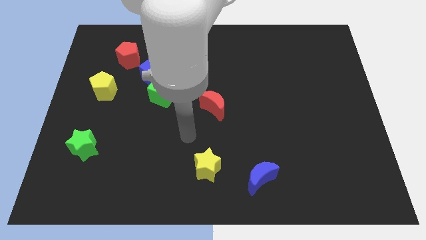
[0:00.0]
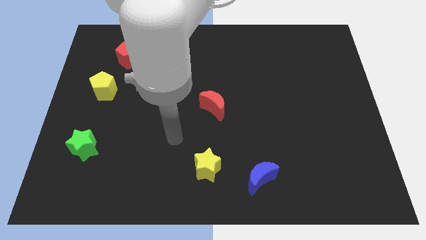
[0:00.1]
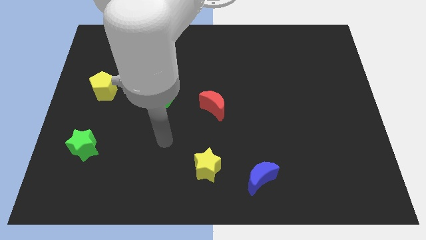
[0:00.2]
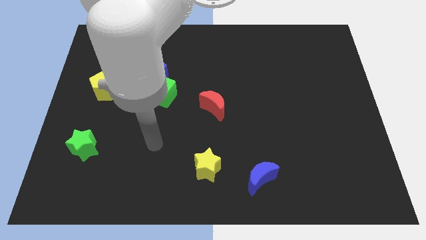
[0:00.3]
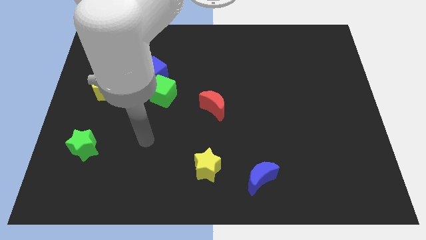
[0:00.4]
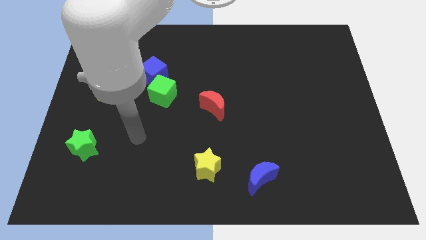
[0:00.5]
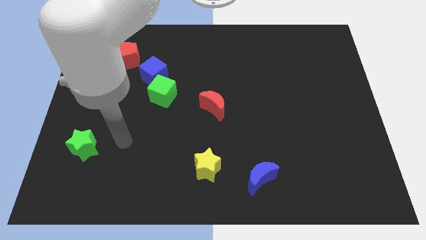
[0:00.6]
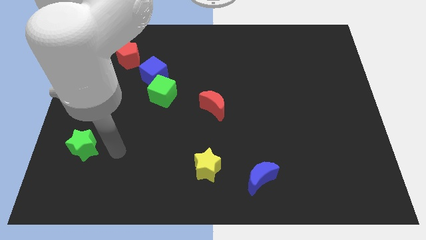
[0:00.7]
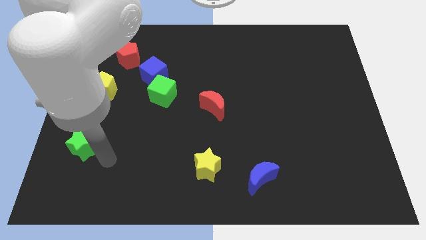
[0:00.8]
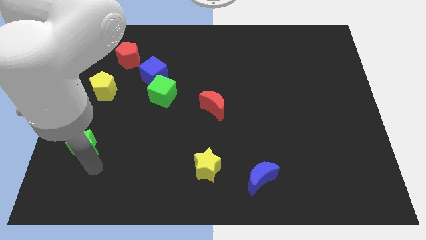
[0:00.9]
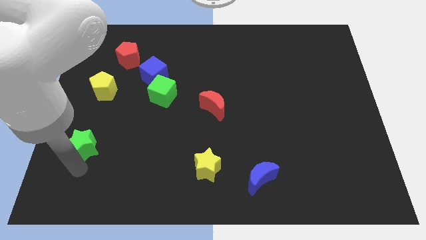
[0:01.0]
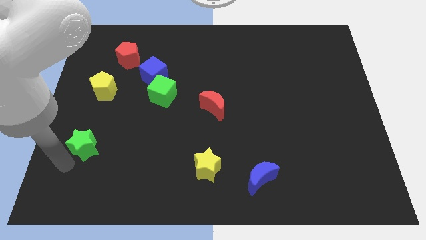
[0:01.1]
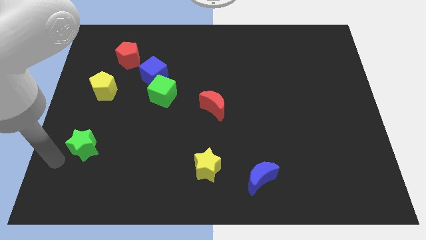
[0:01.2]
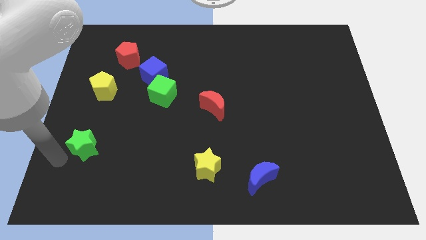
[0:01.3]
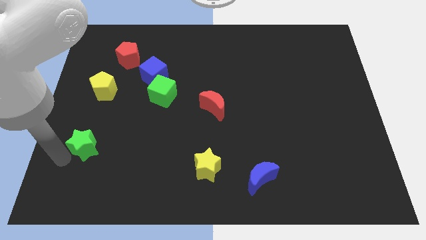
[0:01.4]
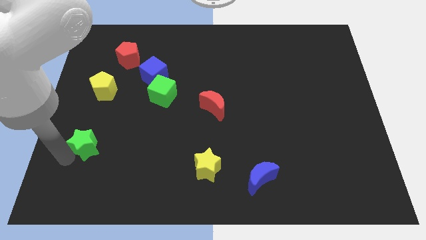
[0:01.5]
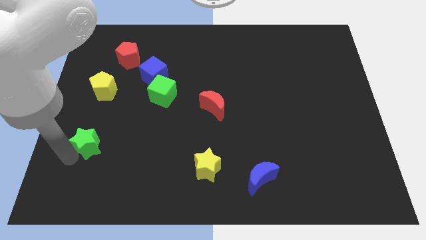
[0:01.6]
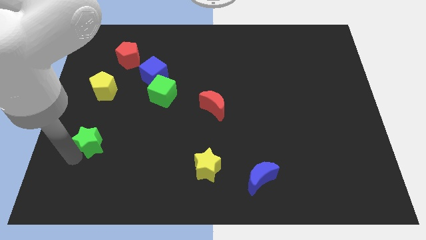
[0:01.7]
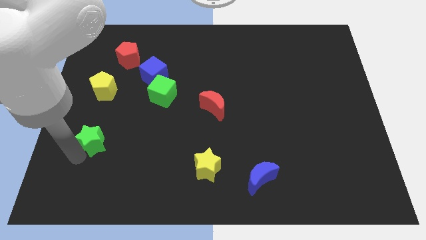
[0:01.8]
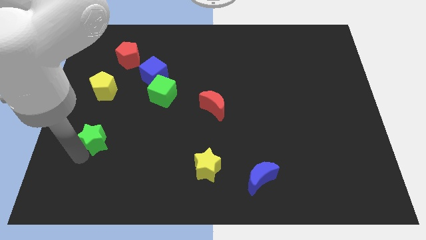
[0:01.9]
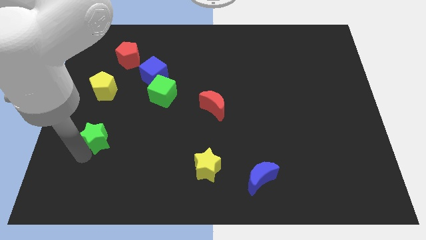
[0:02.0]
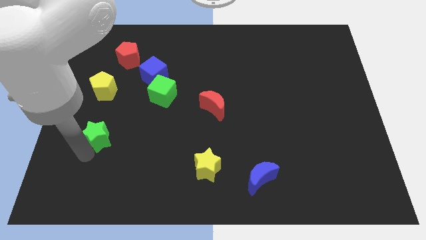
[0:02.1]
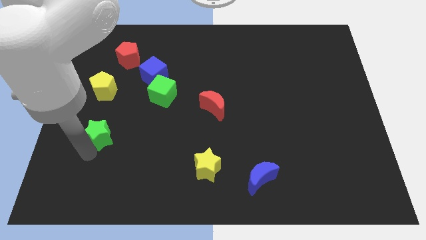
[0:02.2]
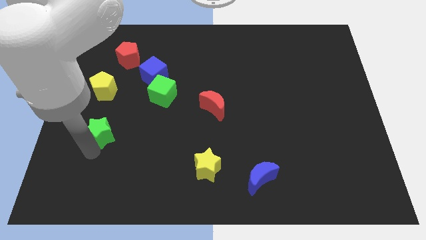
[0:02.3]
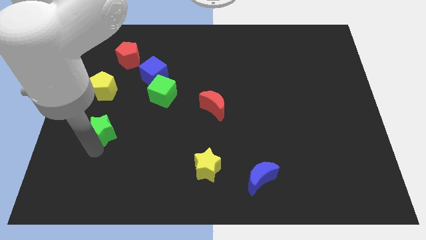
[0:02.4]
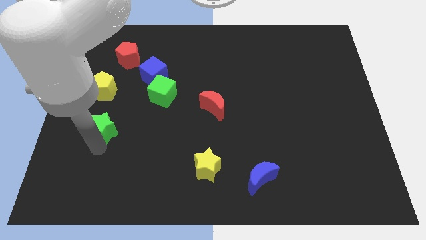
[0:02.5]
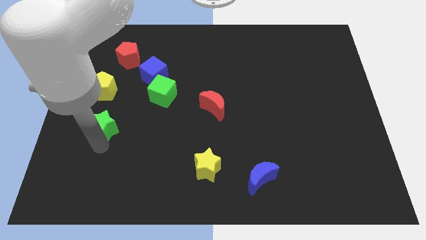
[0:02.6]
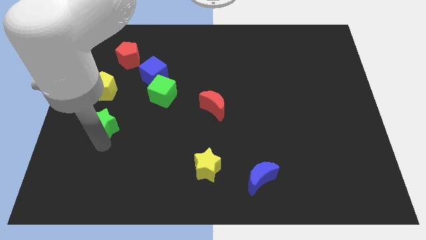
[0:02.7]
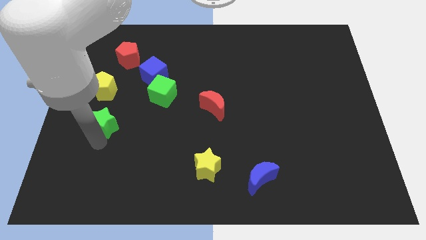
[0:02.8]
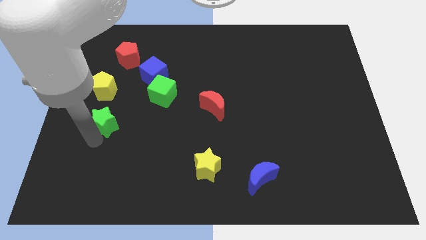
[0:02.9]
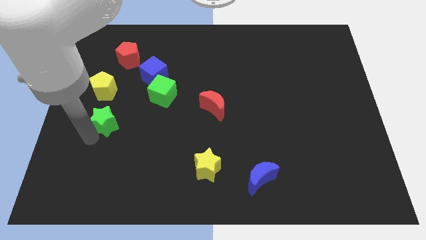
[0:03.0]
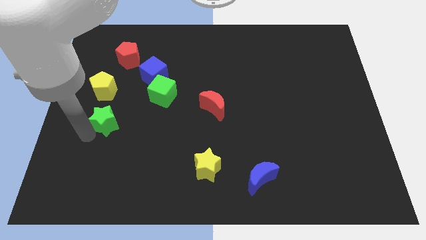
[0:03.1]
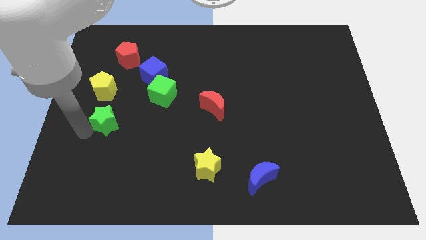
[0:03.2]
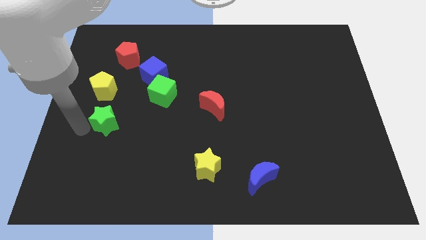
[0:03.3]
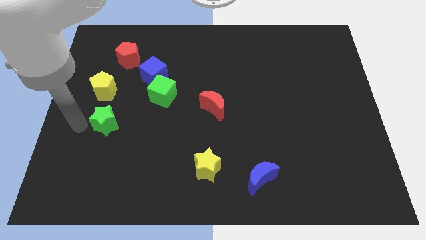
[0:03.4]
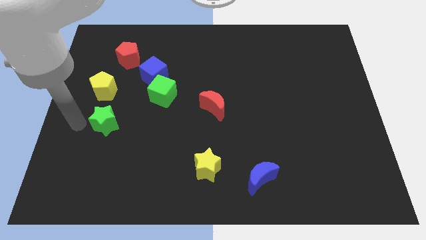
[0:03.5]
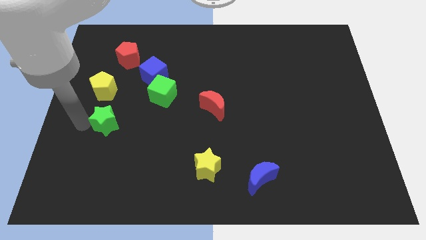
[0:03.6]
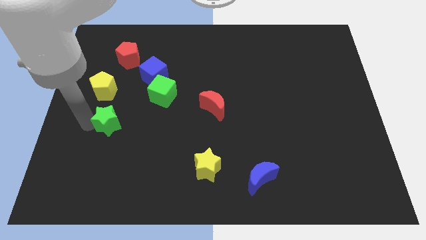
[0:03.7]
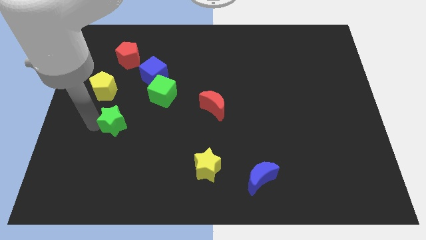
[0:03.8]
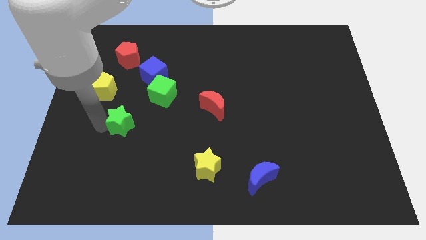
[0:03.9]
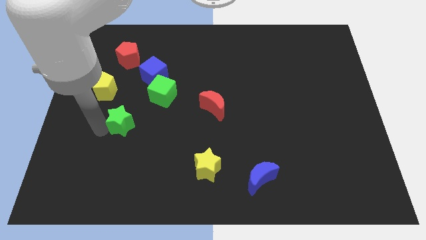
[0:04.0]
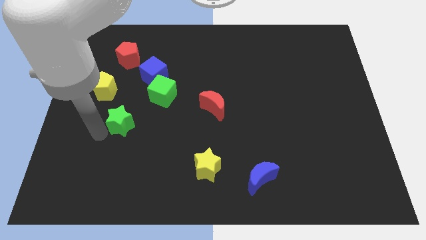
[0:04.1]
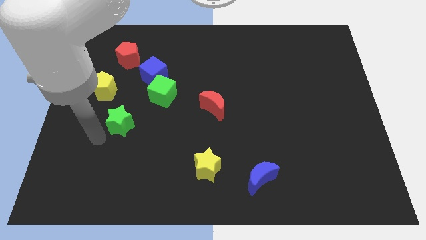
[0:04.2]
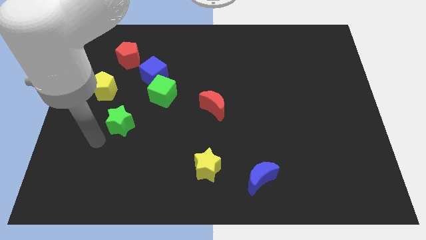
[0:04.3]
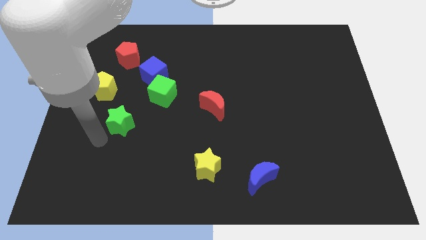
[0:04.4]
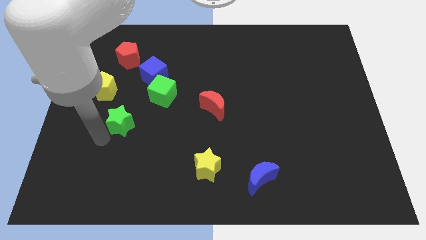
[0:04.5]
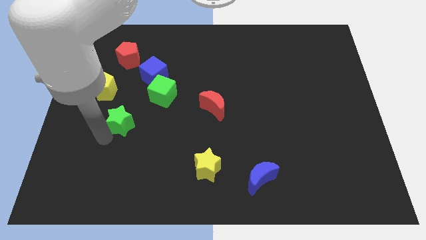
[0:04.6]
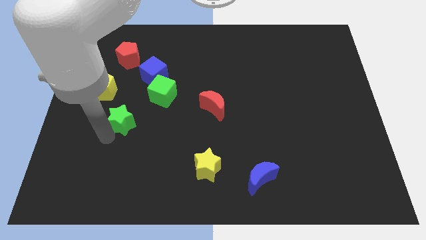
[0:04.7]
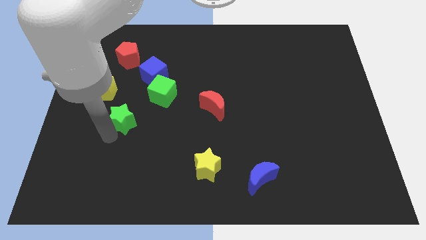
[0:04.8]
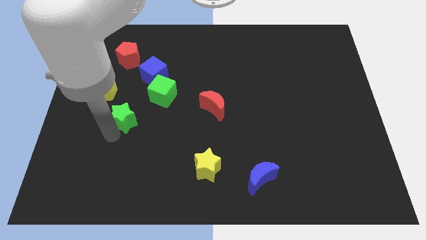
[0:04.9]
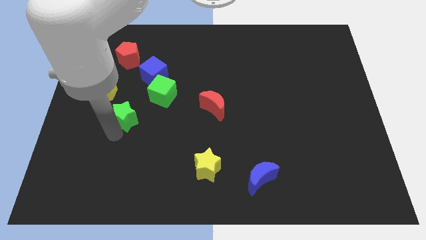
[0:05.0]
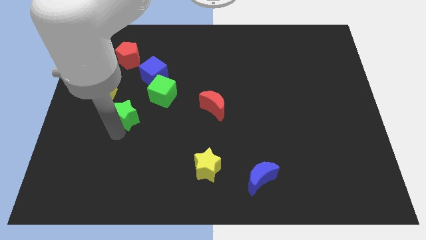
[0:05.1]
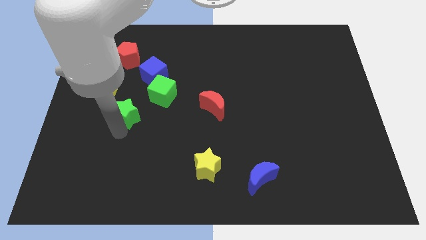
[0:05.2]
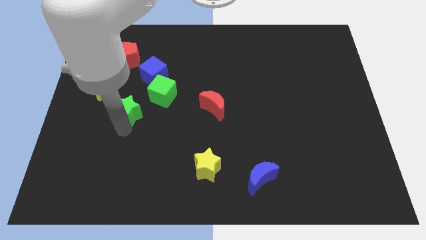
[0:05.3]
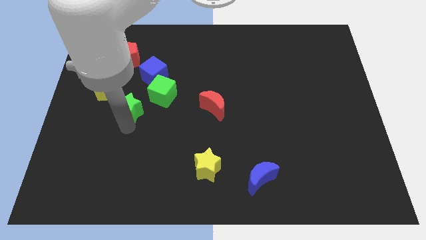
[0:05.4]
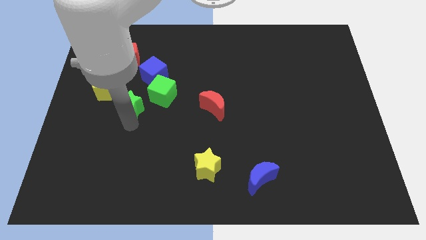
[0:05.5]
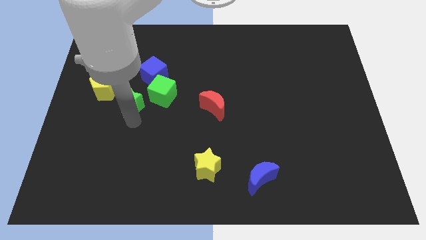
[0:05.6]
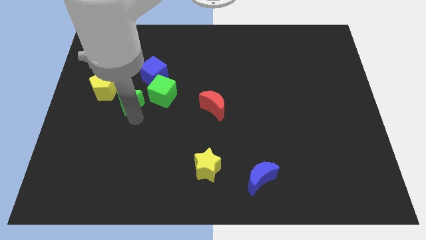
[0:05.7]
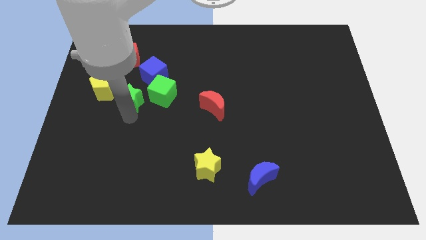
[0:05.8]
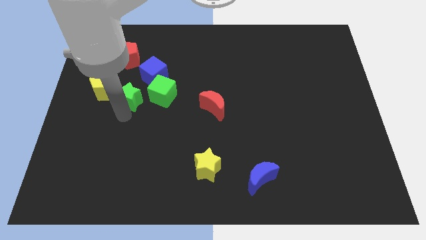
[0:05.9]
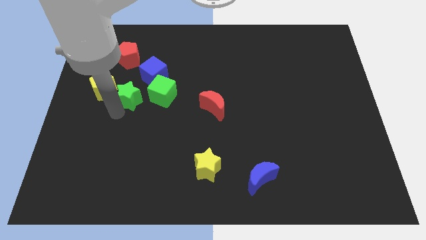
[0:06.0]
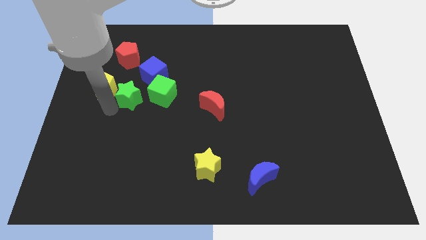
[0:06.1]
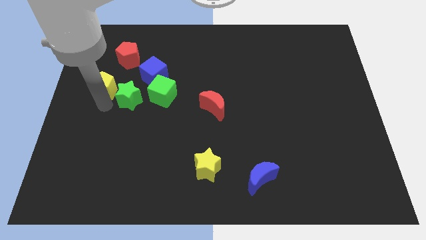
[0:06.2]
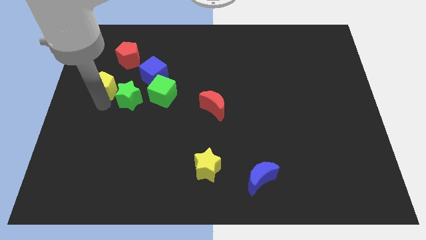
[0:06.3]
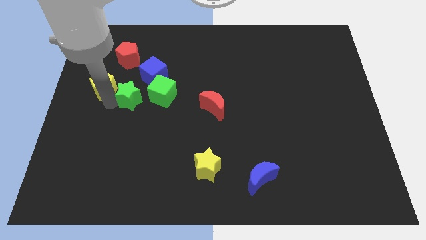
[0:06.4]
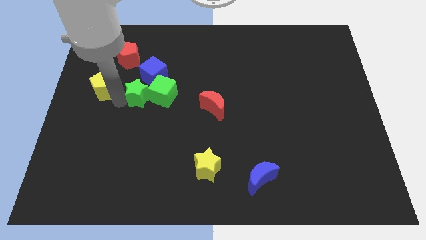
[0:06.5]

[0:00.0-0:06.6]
move the green star next to the green cube

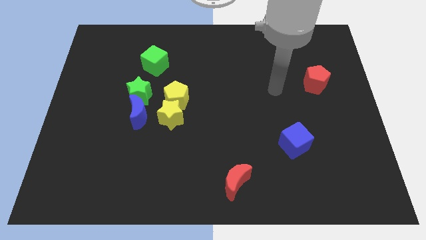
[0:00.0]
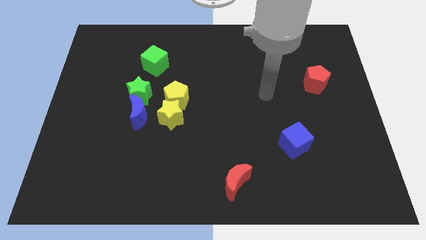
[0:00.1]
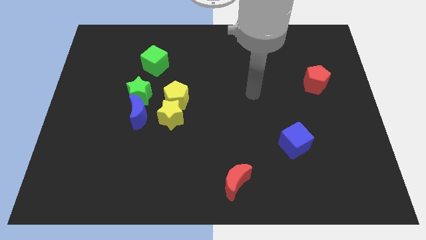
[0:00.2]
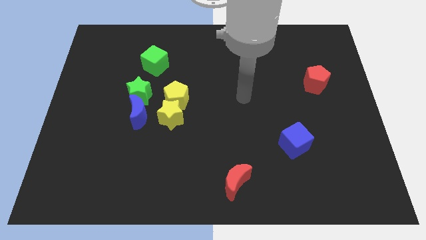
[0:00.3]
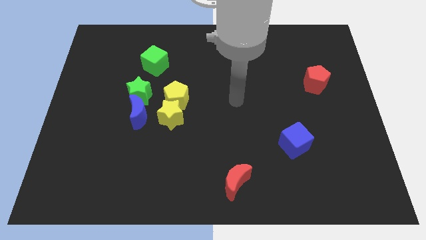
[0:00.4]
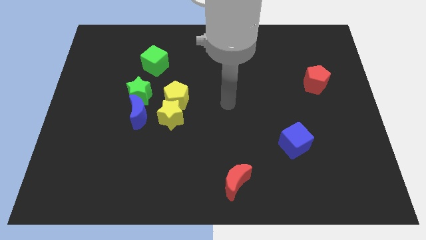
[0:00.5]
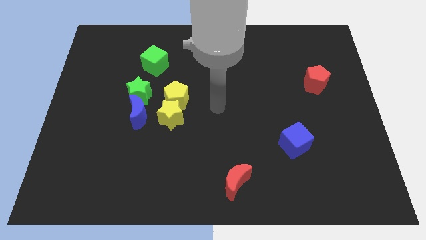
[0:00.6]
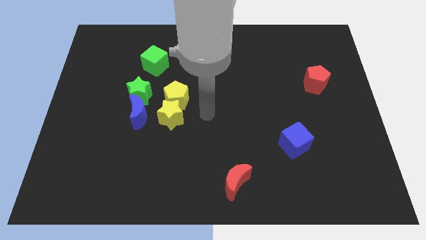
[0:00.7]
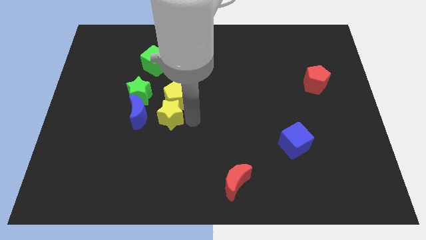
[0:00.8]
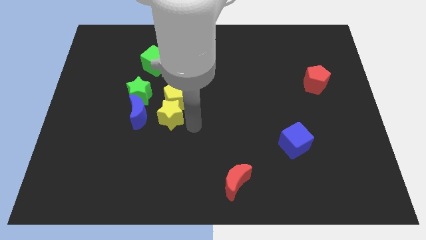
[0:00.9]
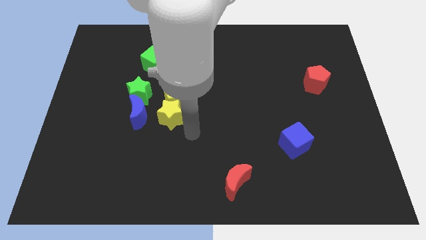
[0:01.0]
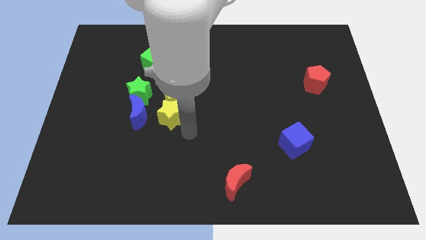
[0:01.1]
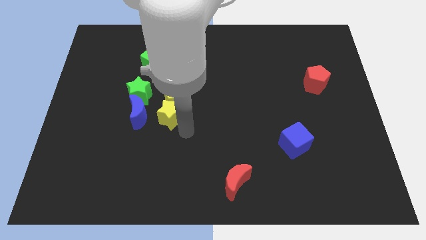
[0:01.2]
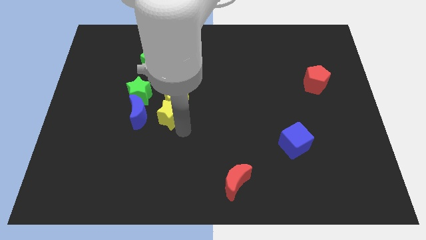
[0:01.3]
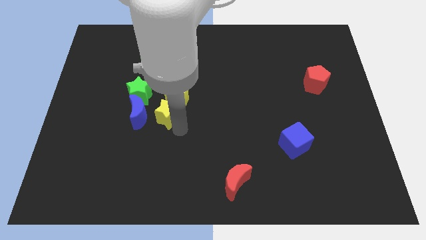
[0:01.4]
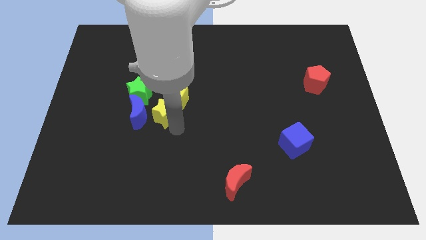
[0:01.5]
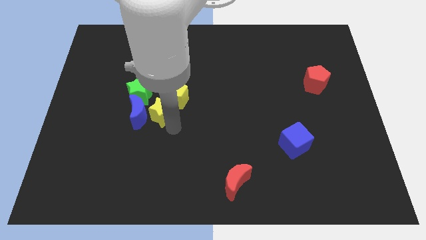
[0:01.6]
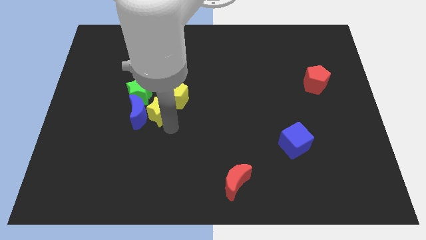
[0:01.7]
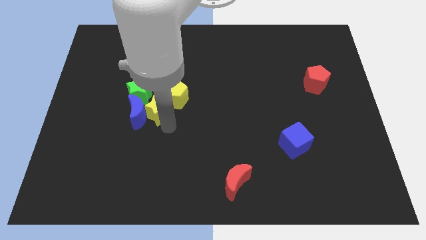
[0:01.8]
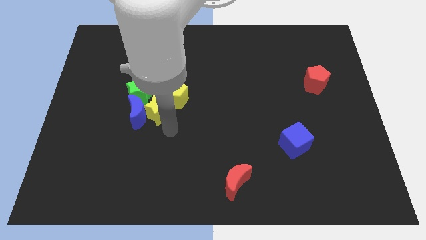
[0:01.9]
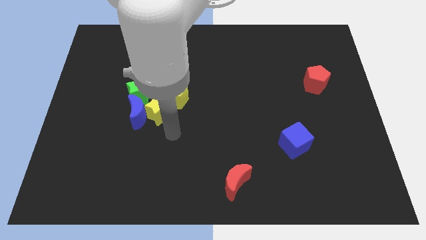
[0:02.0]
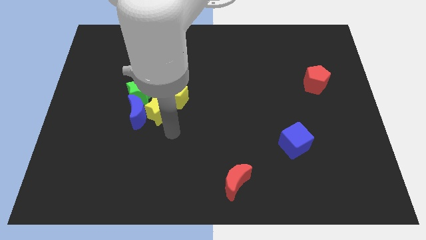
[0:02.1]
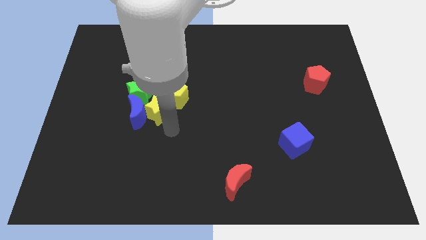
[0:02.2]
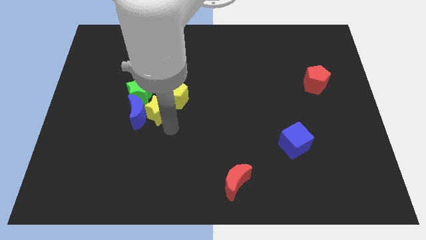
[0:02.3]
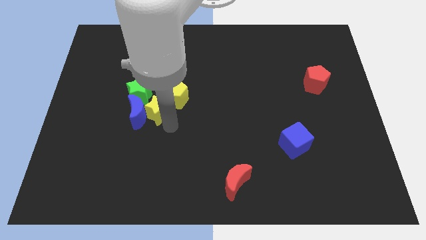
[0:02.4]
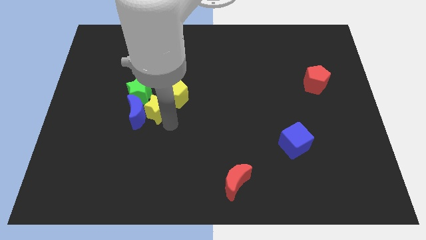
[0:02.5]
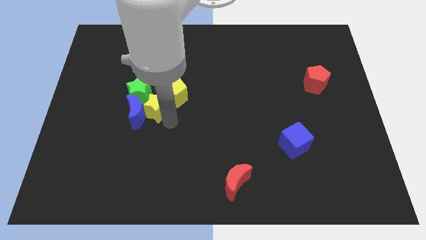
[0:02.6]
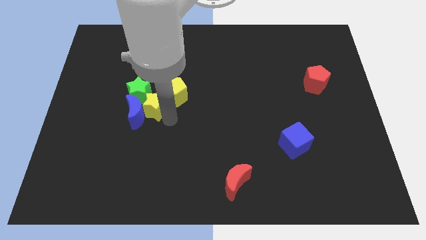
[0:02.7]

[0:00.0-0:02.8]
put the yellow star to the green star
